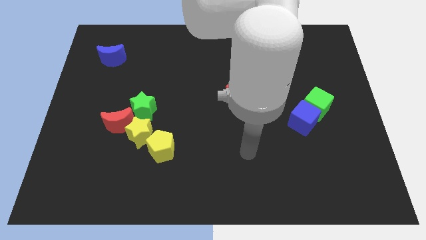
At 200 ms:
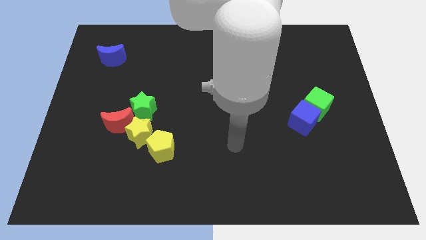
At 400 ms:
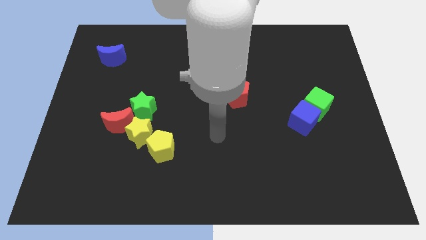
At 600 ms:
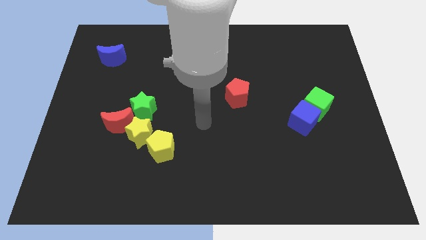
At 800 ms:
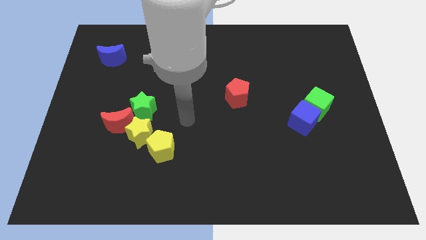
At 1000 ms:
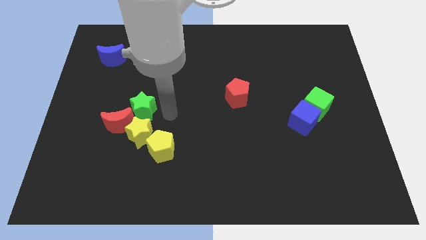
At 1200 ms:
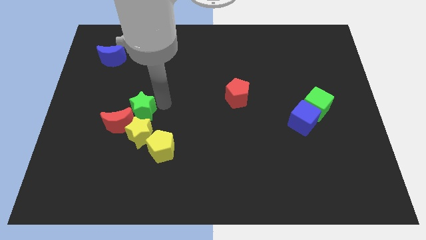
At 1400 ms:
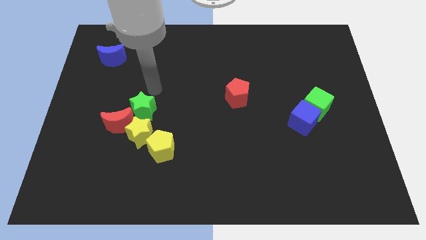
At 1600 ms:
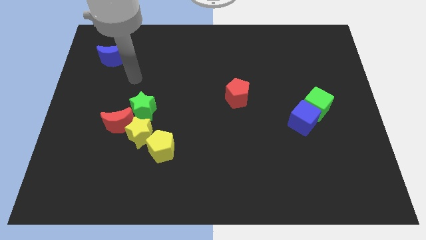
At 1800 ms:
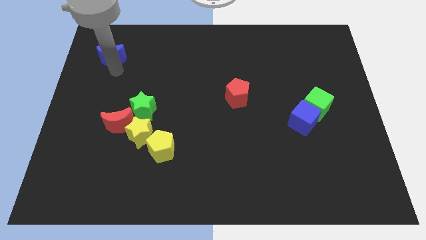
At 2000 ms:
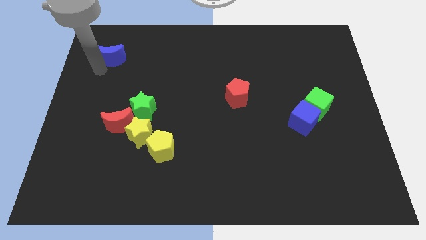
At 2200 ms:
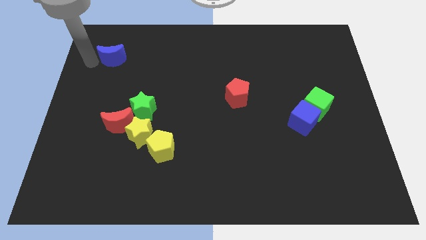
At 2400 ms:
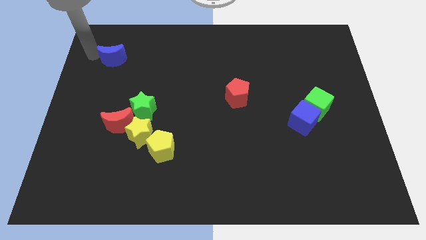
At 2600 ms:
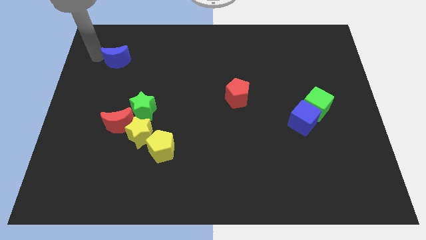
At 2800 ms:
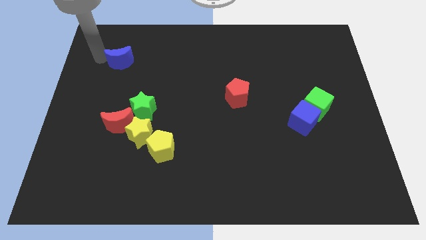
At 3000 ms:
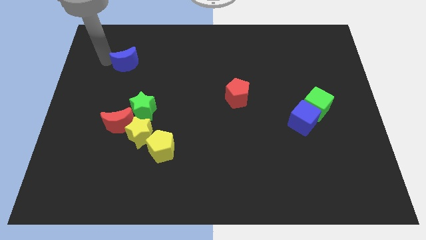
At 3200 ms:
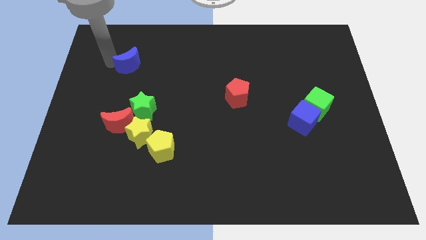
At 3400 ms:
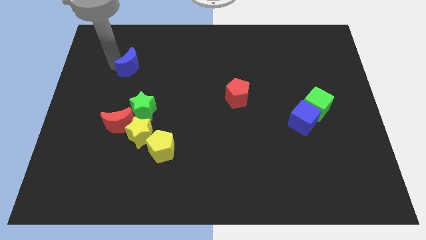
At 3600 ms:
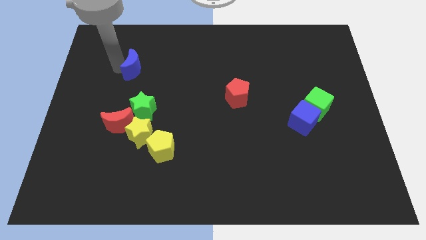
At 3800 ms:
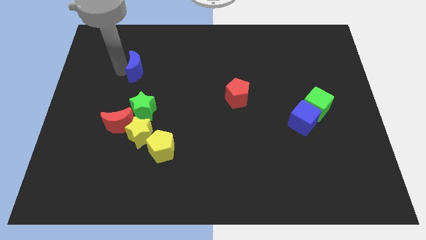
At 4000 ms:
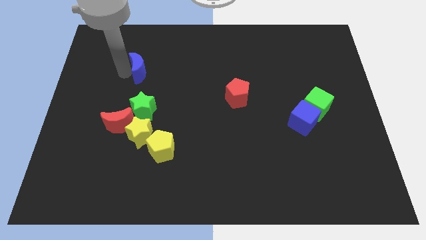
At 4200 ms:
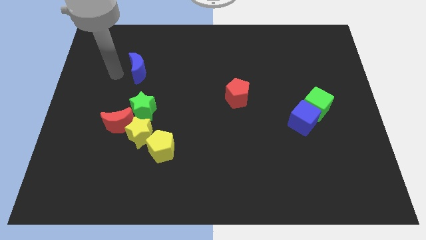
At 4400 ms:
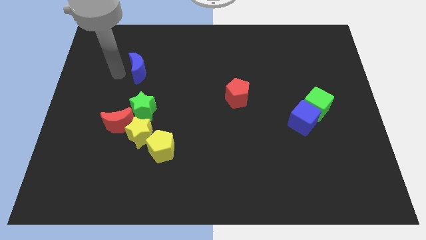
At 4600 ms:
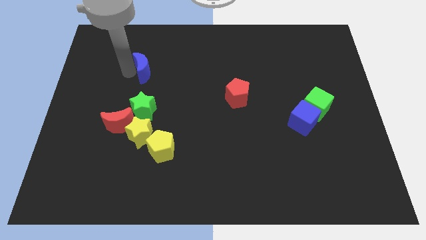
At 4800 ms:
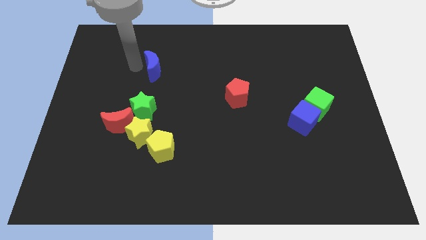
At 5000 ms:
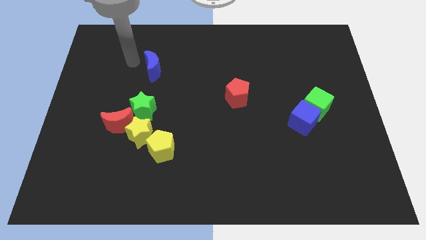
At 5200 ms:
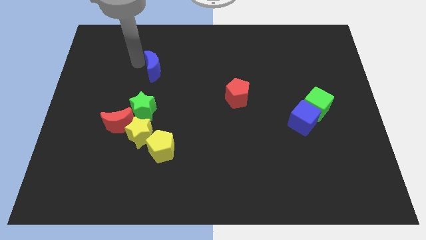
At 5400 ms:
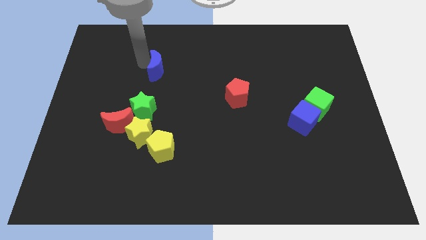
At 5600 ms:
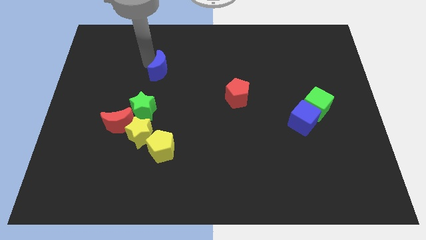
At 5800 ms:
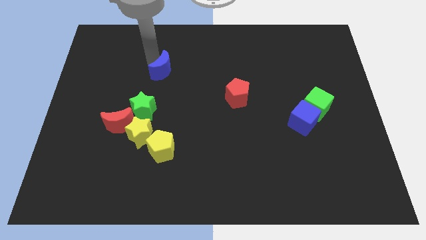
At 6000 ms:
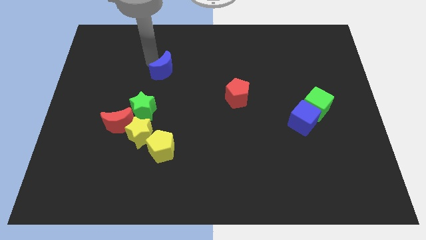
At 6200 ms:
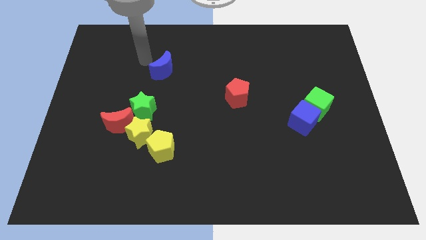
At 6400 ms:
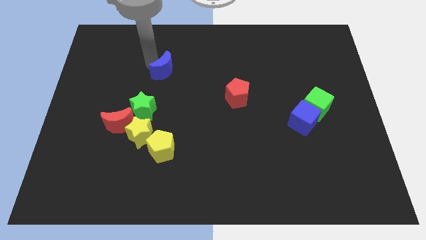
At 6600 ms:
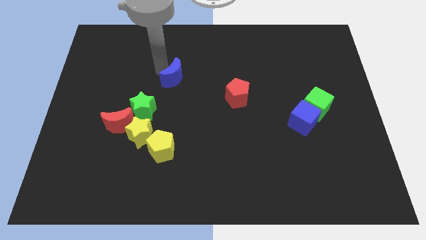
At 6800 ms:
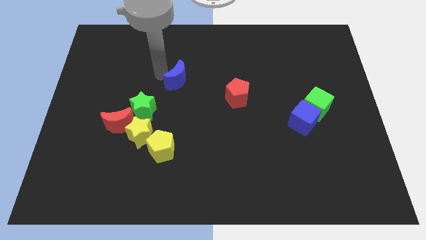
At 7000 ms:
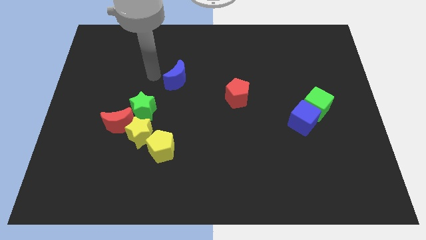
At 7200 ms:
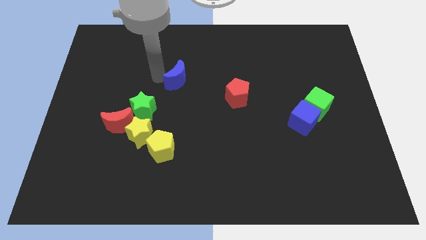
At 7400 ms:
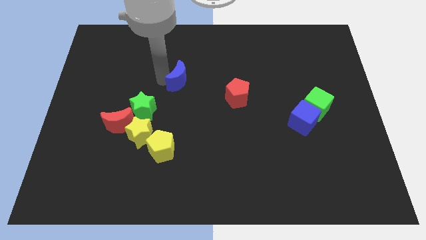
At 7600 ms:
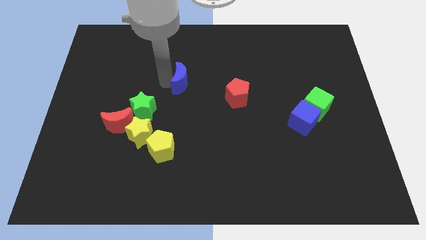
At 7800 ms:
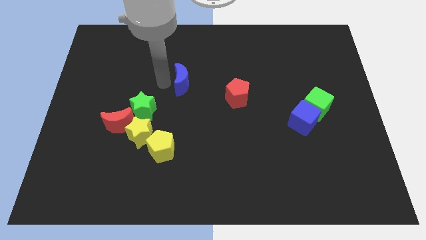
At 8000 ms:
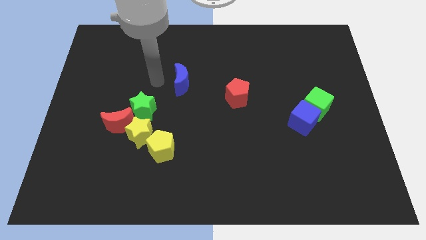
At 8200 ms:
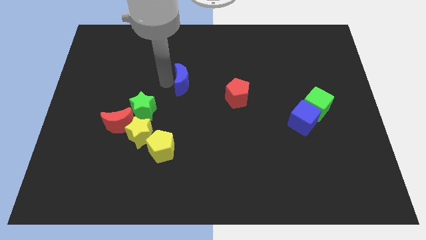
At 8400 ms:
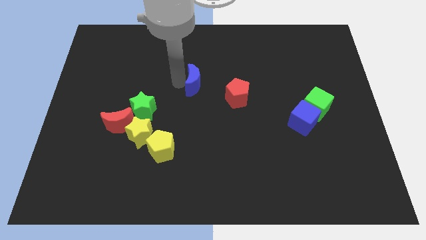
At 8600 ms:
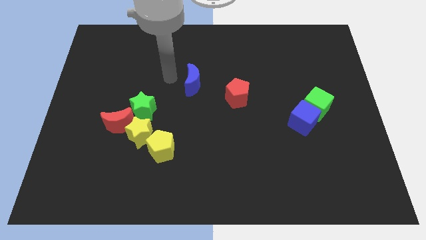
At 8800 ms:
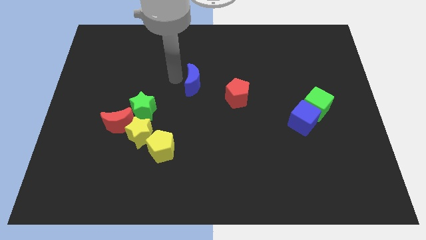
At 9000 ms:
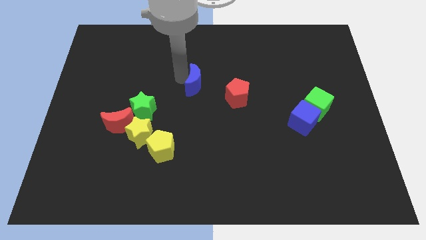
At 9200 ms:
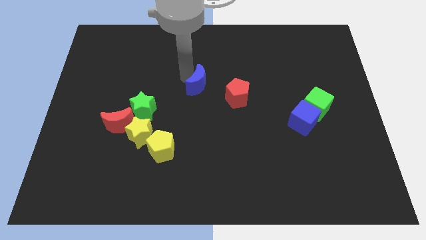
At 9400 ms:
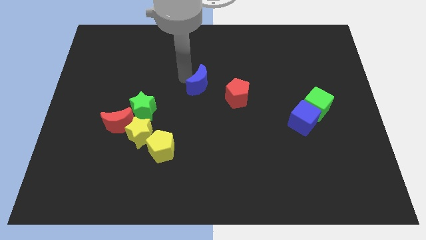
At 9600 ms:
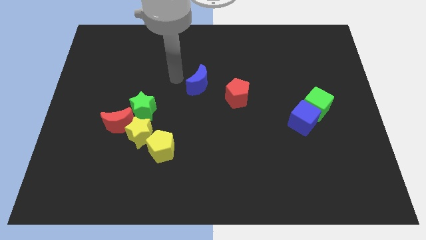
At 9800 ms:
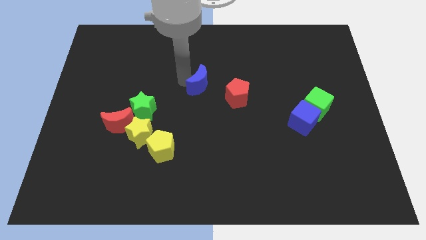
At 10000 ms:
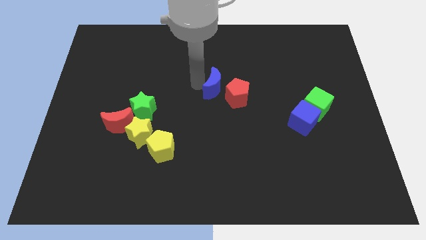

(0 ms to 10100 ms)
put the blue moon to the red pentagon

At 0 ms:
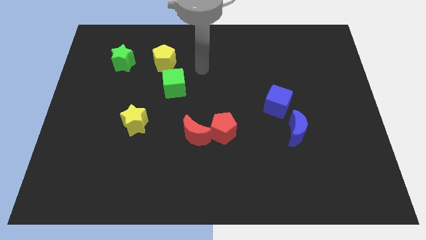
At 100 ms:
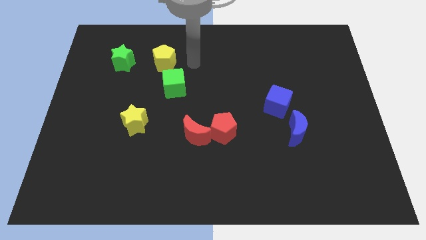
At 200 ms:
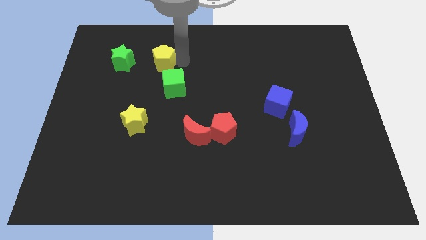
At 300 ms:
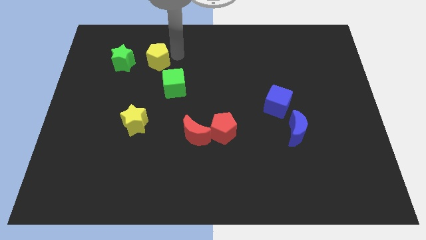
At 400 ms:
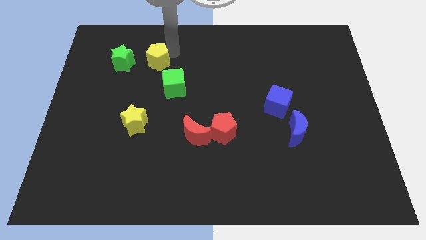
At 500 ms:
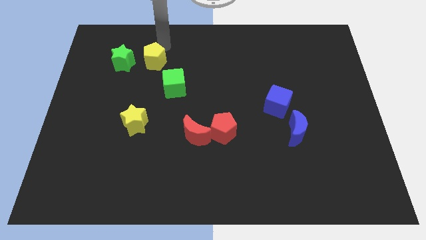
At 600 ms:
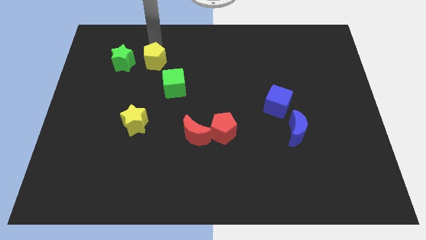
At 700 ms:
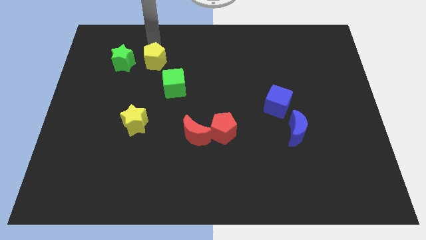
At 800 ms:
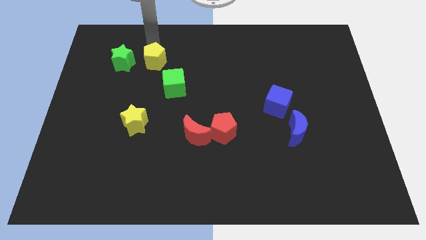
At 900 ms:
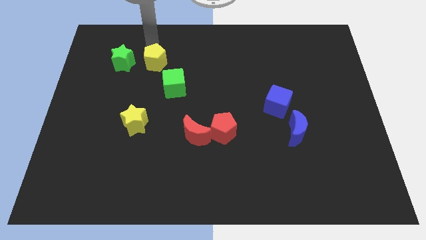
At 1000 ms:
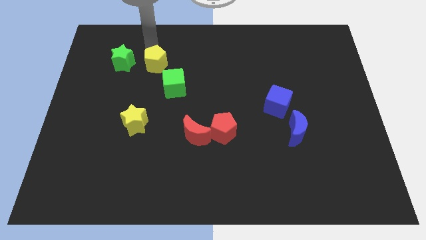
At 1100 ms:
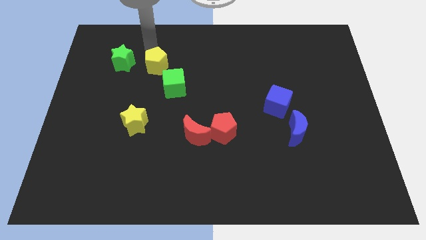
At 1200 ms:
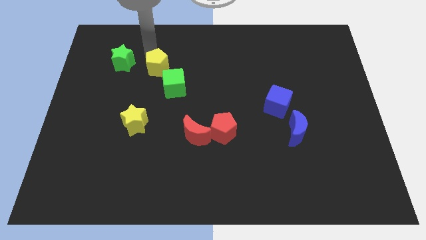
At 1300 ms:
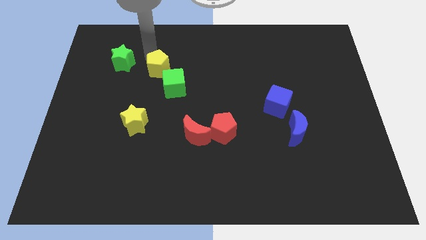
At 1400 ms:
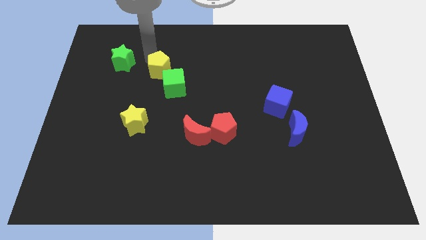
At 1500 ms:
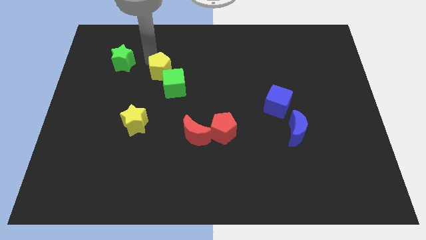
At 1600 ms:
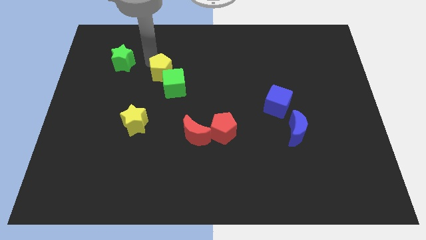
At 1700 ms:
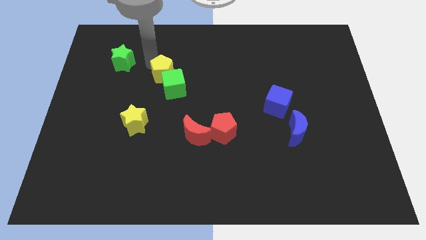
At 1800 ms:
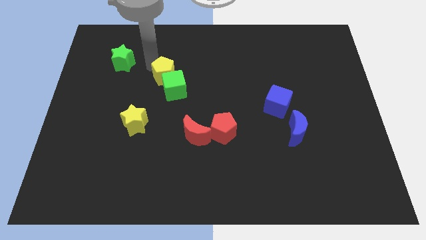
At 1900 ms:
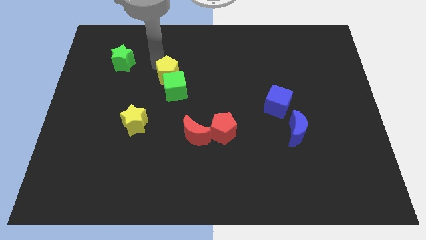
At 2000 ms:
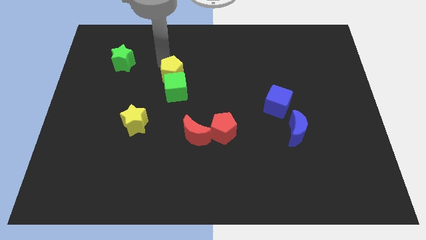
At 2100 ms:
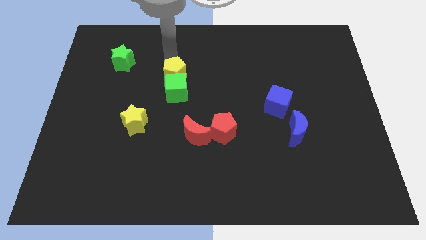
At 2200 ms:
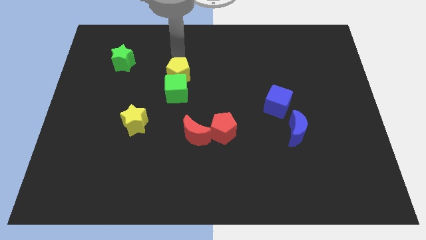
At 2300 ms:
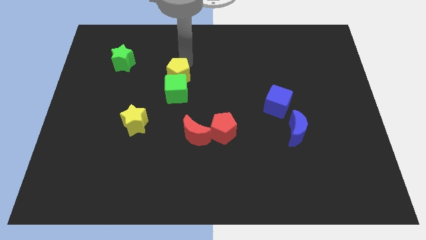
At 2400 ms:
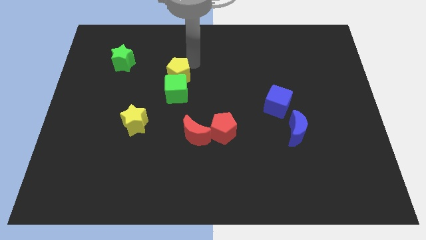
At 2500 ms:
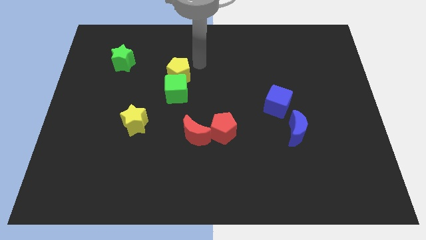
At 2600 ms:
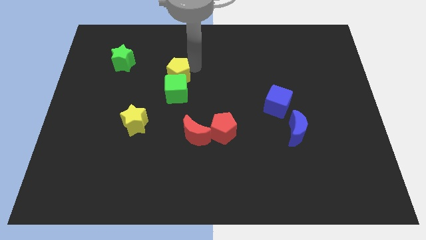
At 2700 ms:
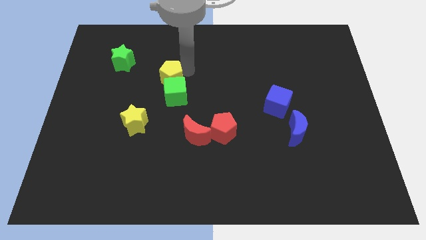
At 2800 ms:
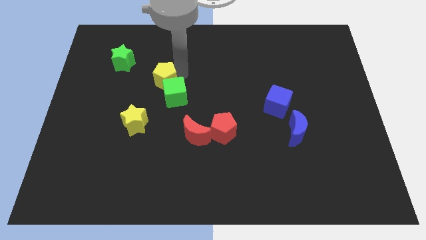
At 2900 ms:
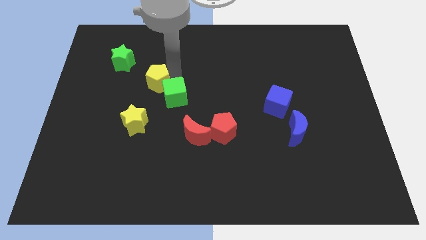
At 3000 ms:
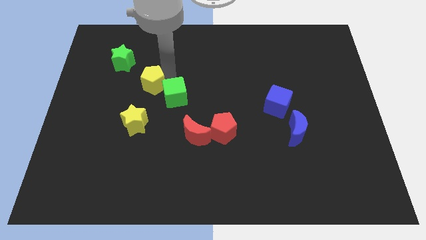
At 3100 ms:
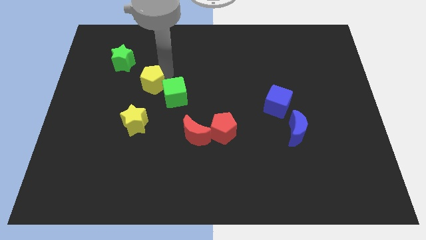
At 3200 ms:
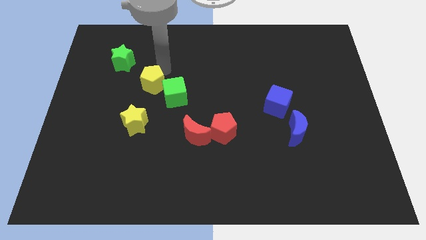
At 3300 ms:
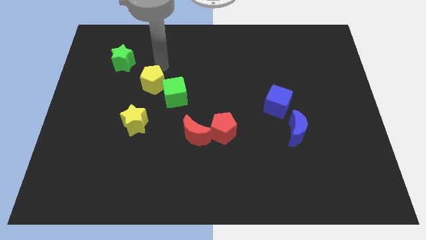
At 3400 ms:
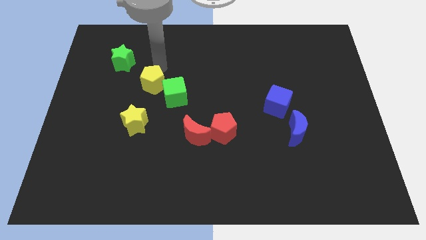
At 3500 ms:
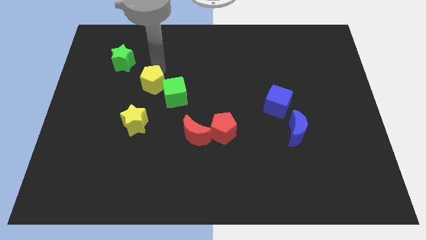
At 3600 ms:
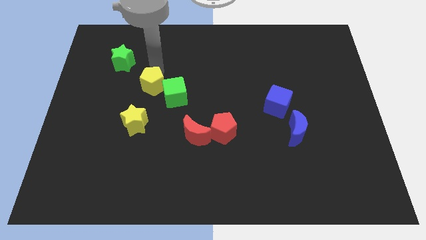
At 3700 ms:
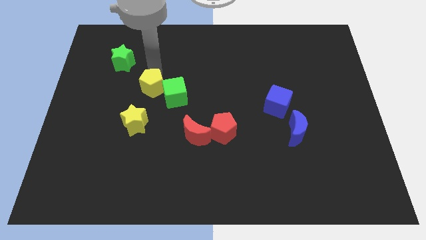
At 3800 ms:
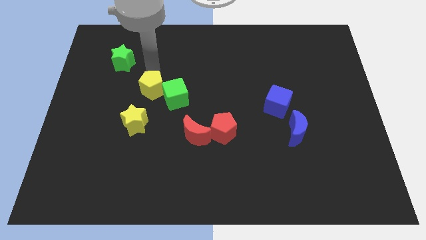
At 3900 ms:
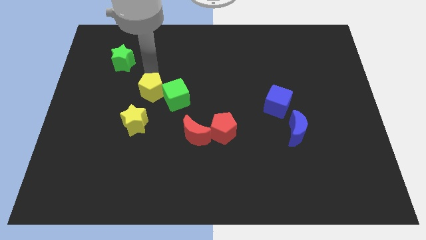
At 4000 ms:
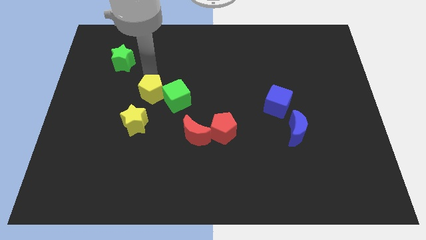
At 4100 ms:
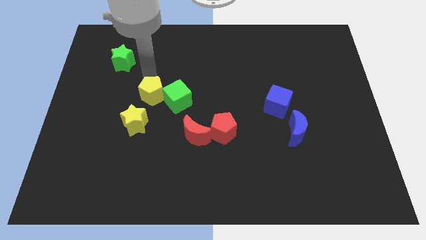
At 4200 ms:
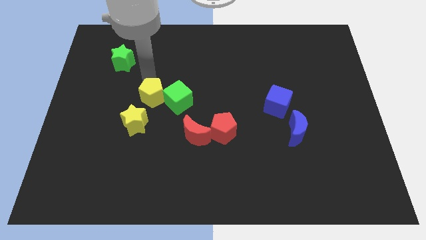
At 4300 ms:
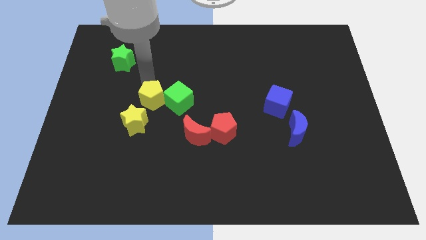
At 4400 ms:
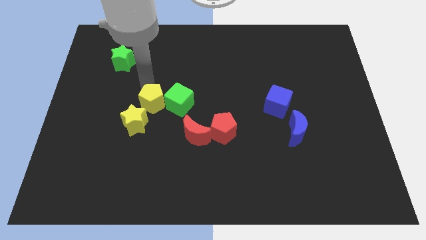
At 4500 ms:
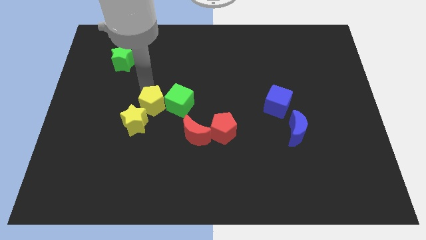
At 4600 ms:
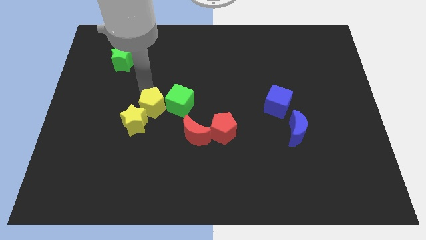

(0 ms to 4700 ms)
push the yellow pentagon close to the yellow star
